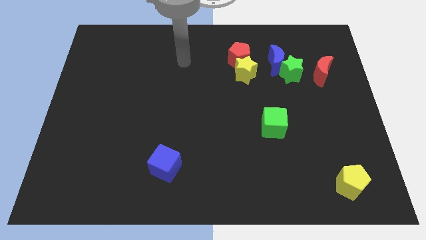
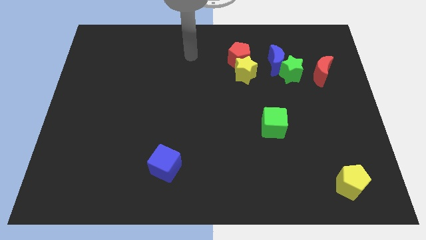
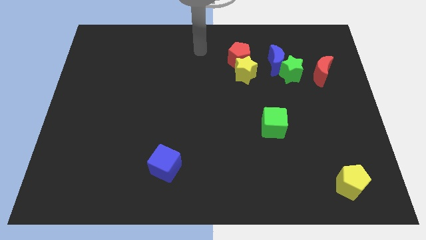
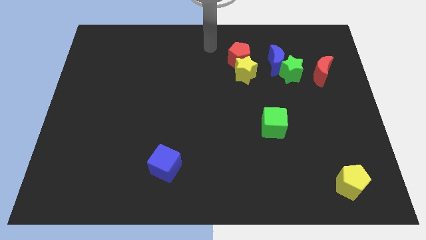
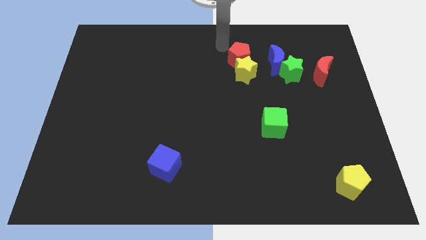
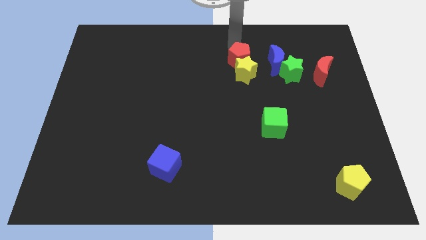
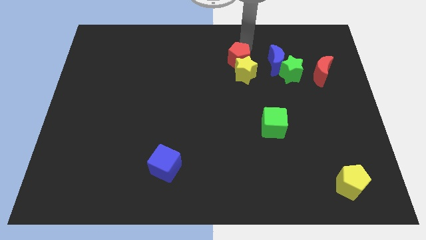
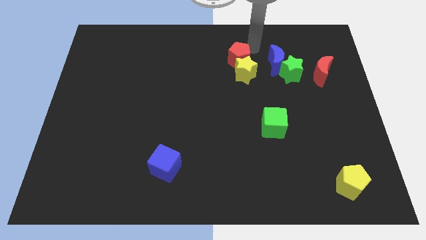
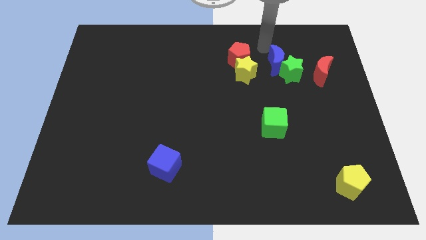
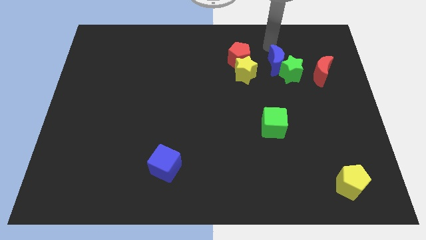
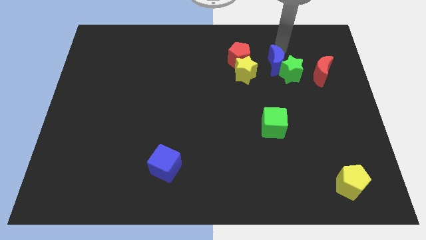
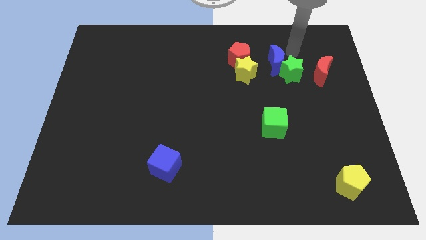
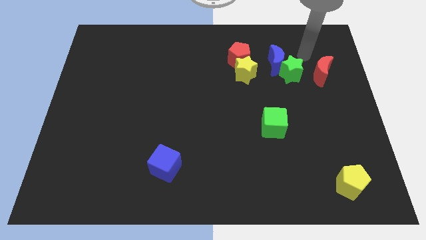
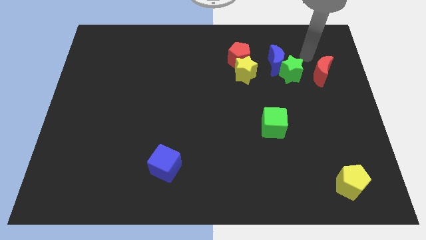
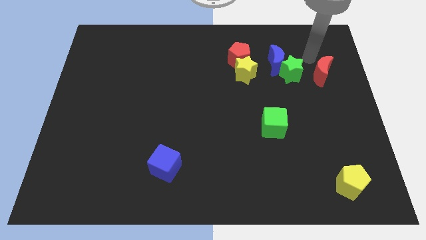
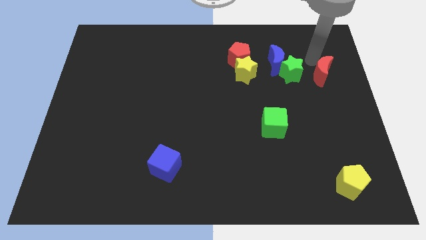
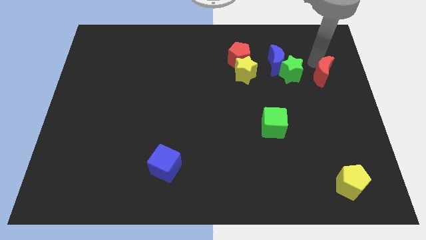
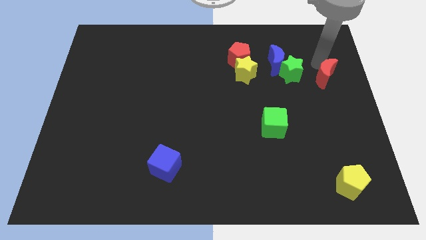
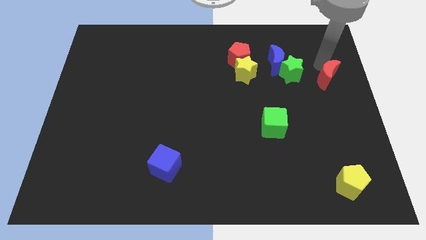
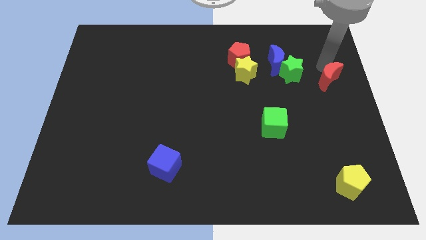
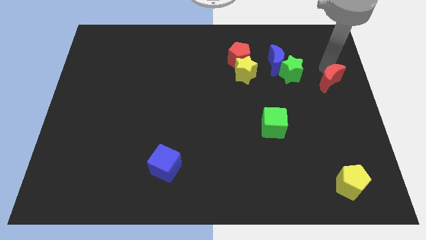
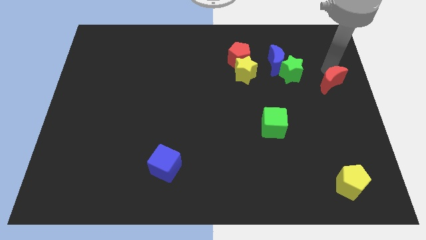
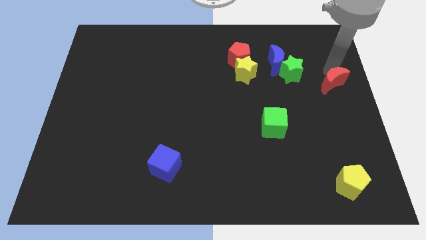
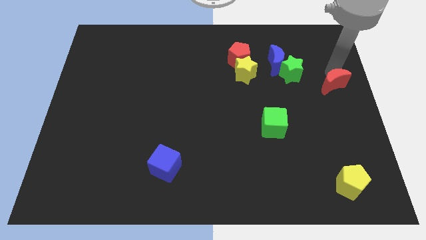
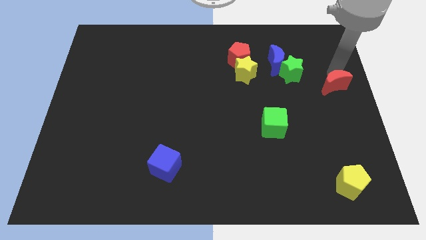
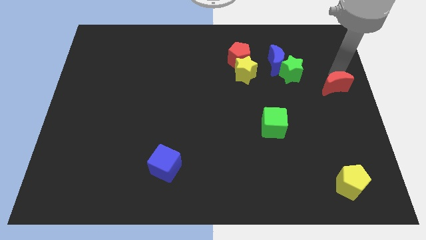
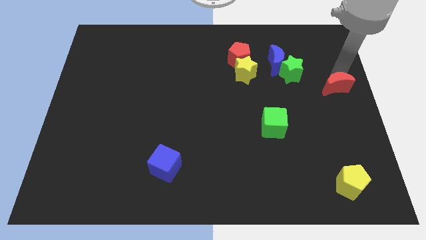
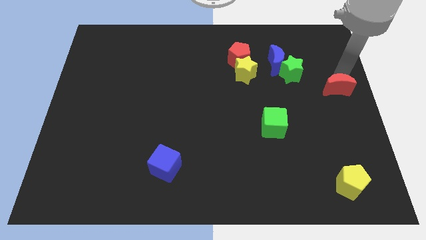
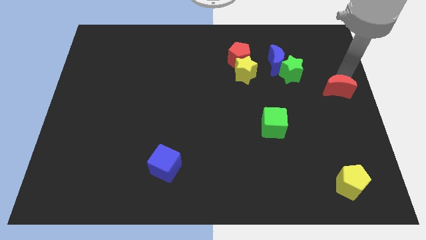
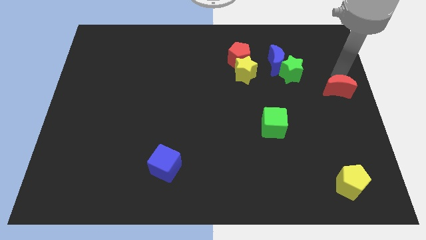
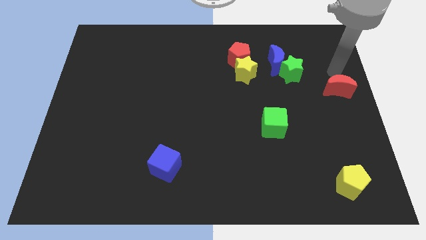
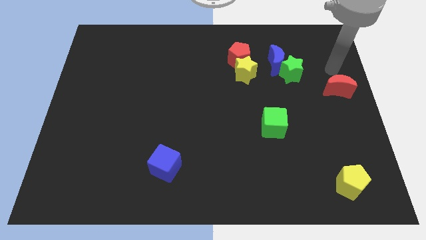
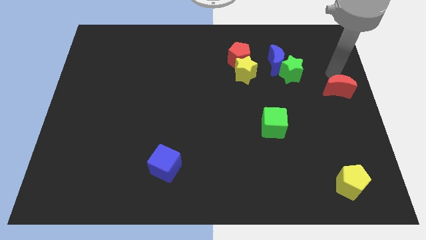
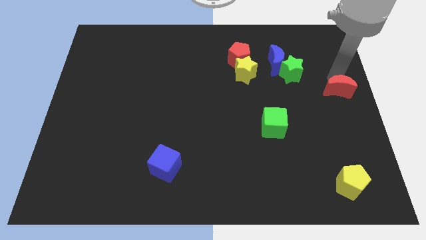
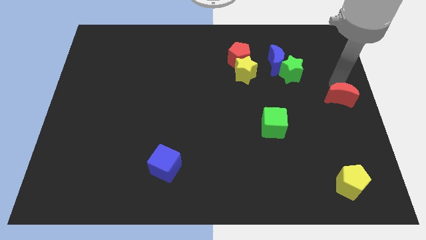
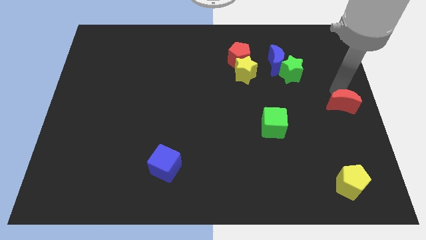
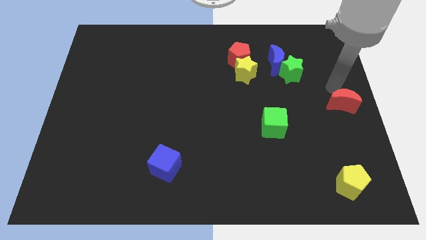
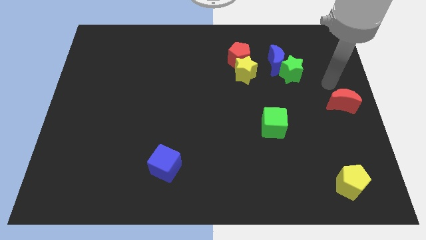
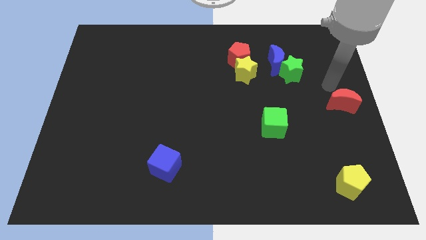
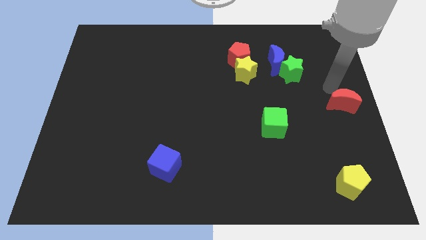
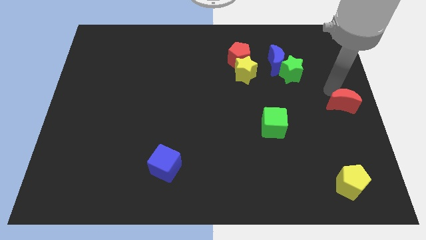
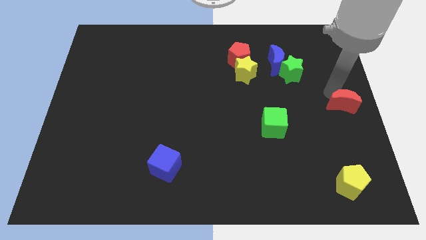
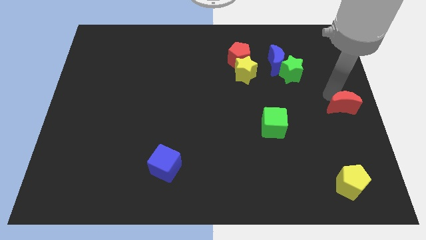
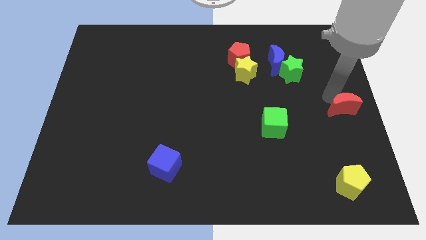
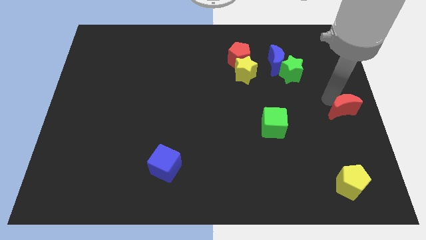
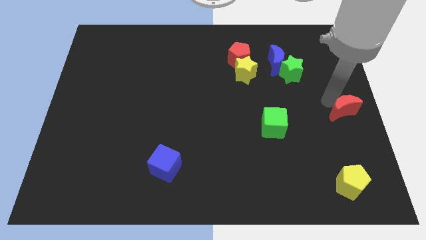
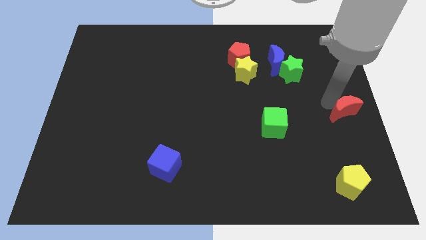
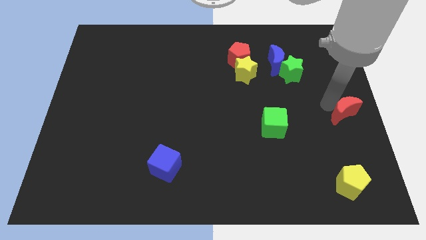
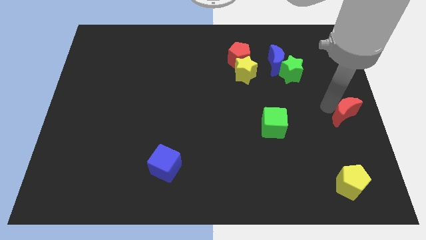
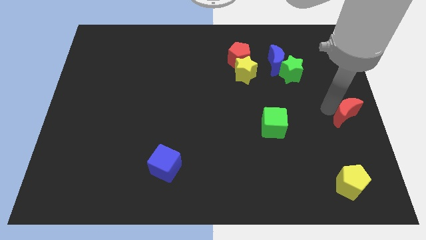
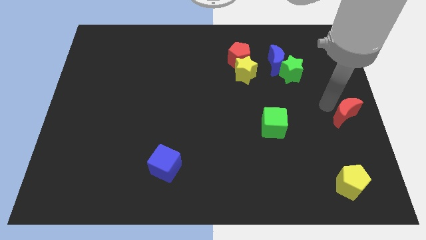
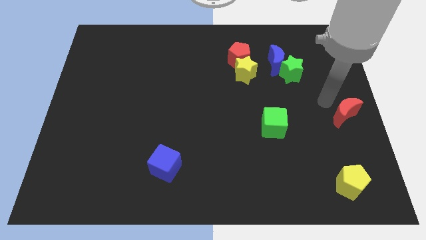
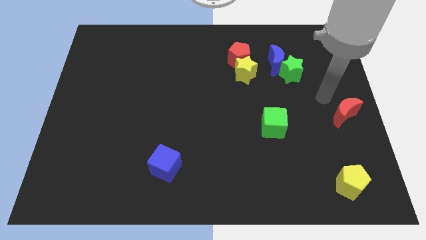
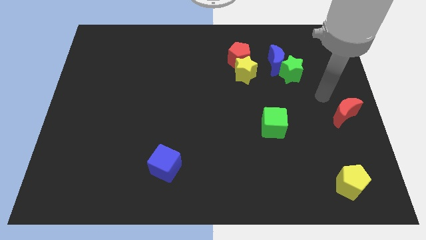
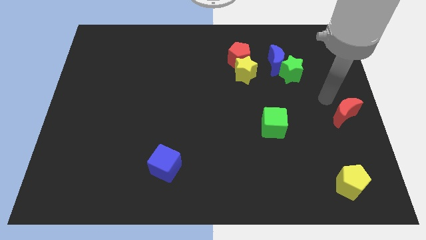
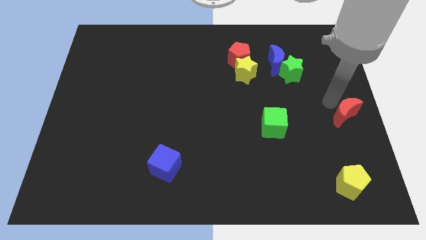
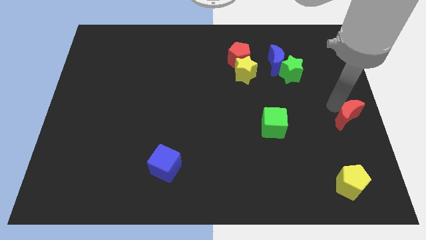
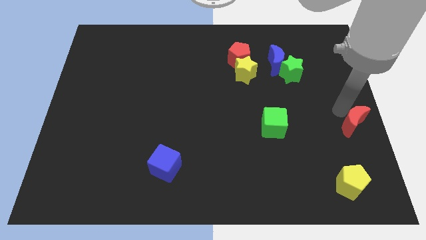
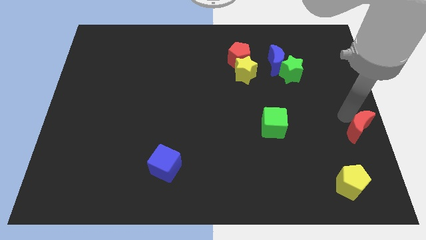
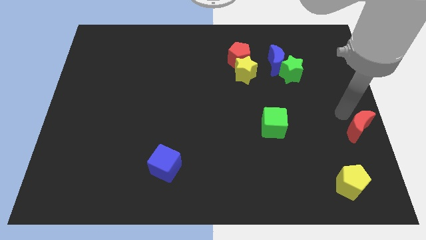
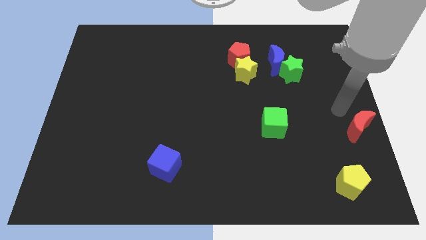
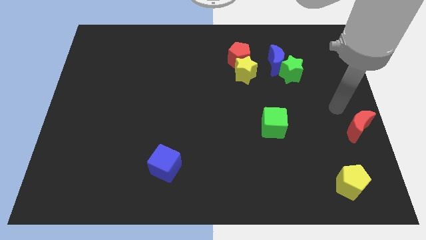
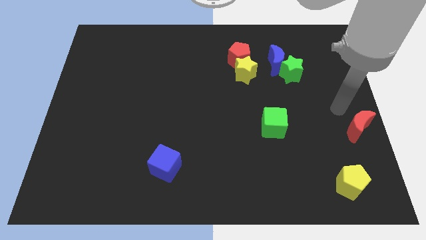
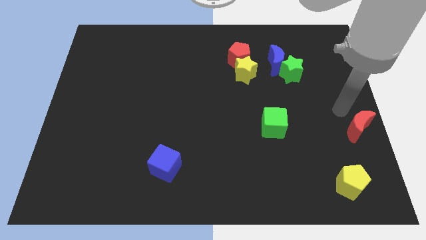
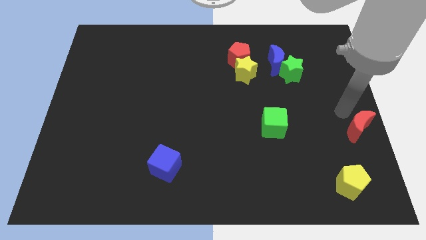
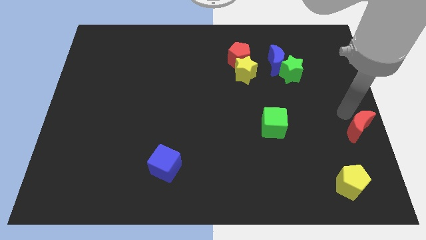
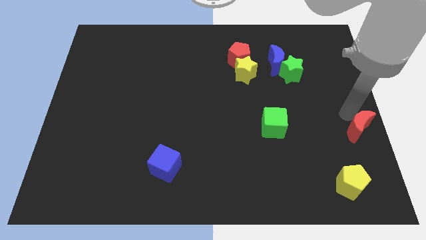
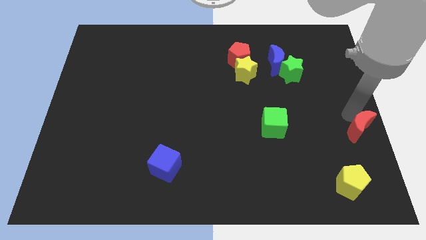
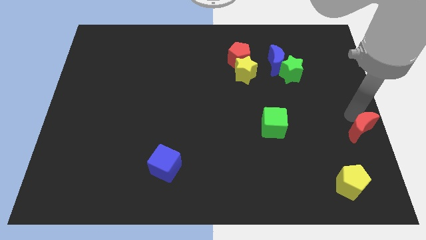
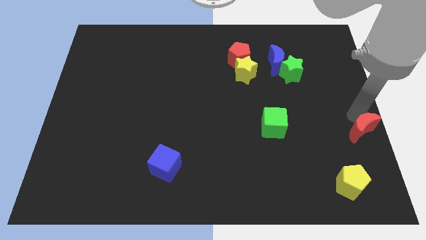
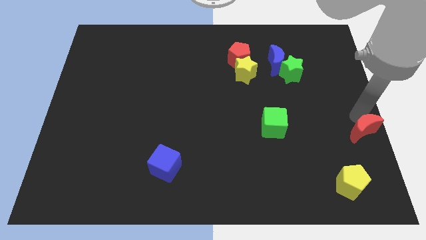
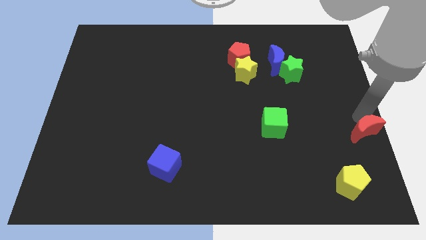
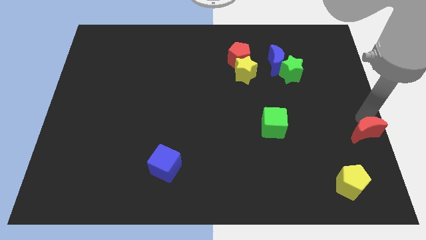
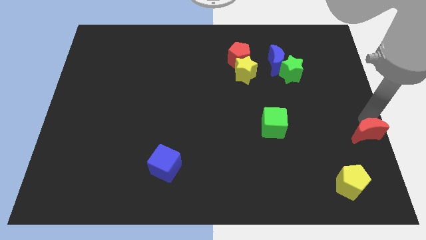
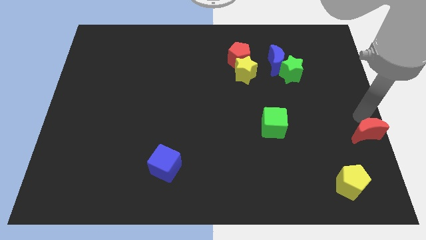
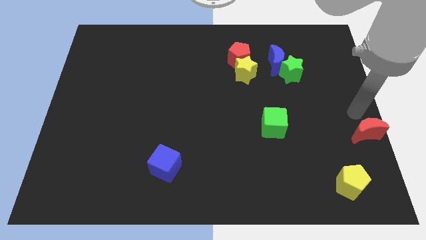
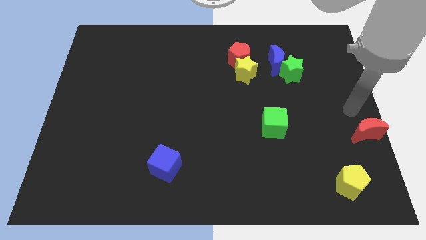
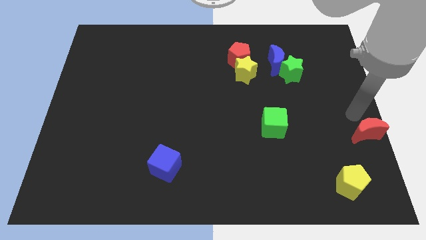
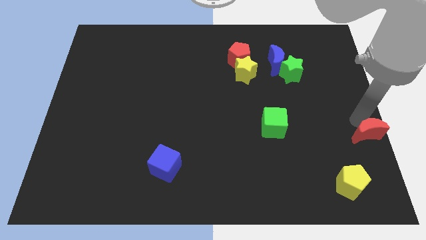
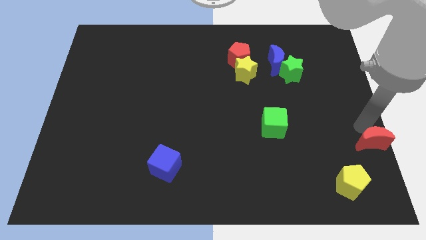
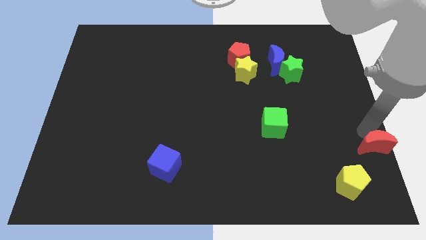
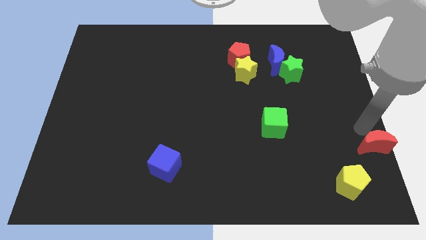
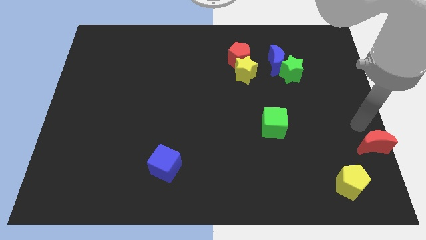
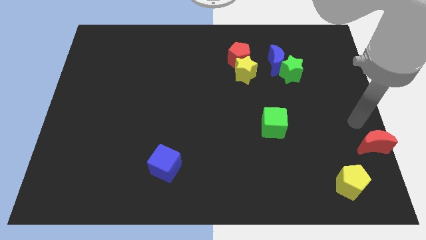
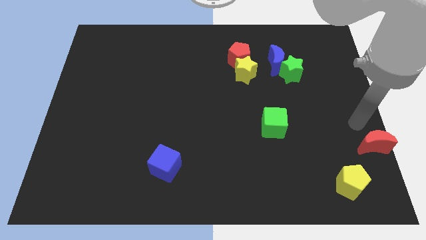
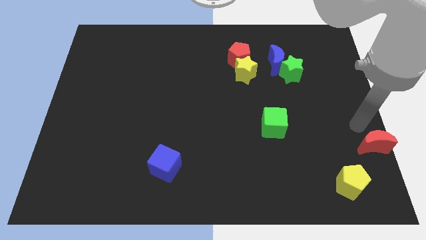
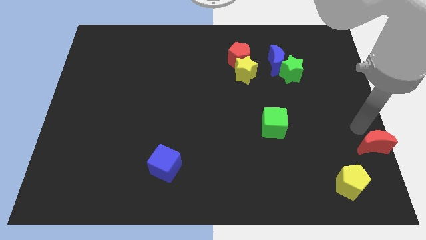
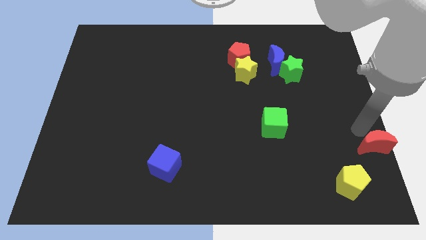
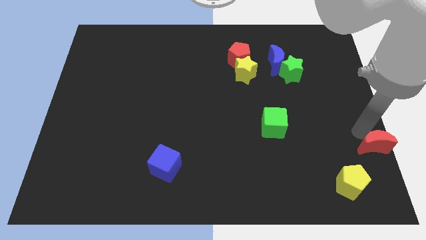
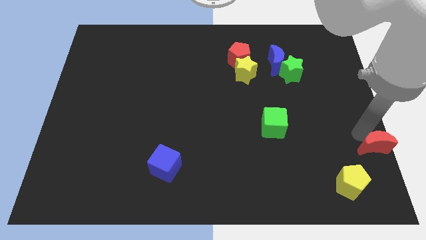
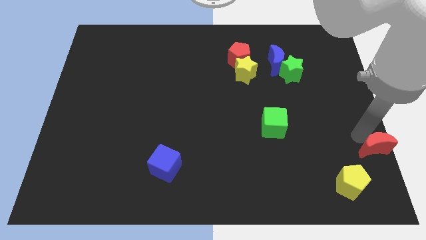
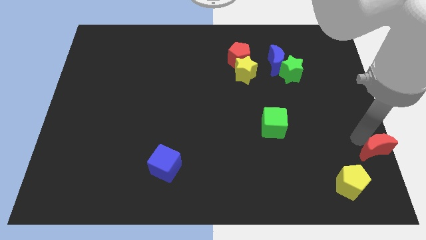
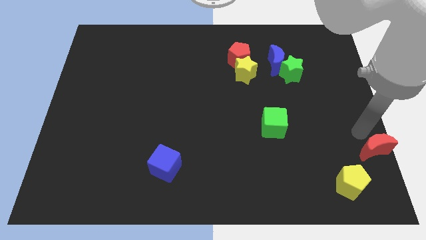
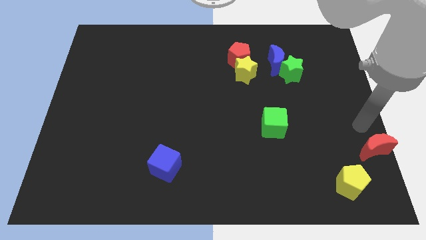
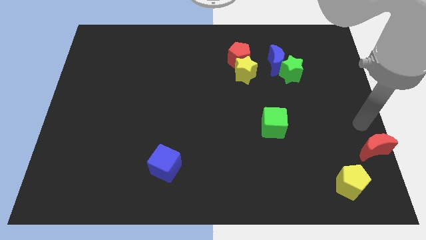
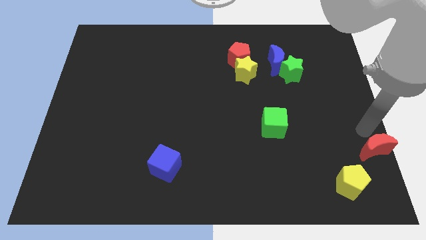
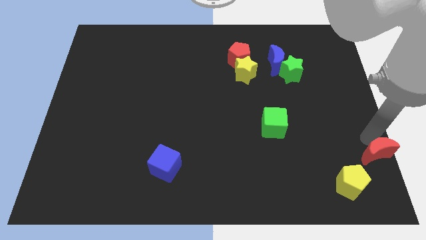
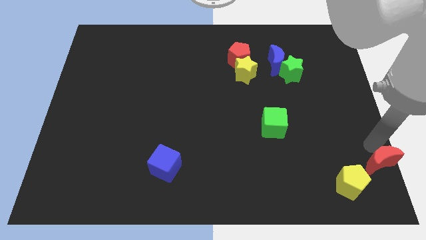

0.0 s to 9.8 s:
slide the red moon to the lower right corner
